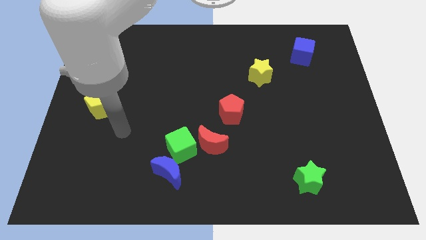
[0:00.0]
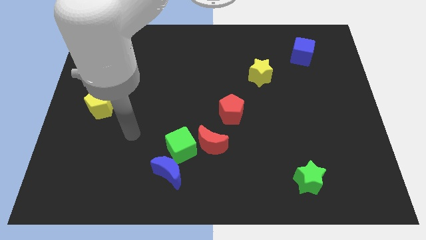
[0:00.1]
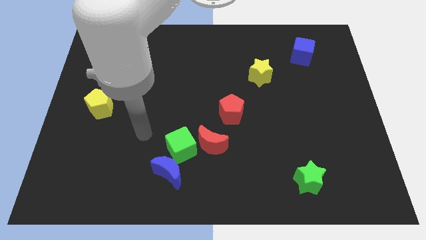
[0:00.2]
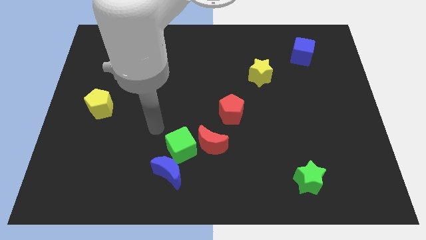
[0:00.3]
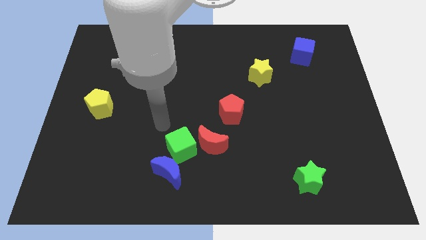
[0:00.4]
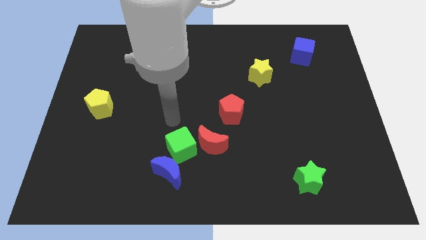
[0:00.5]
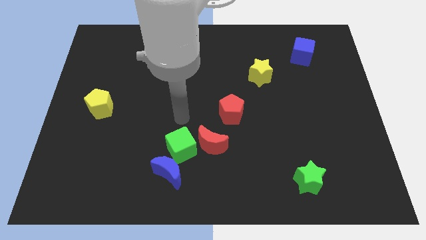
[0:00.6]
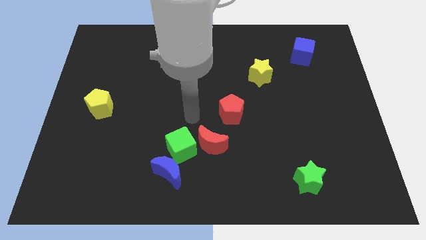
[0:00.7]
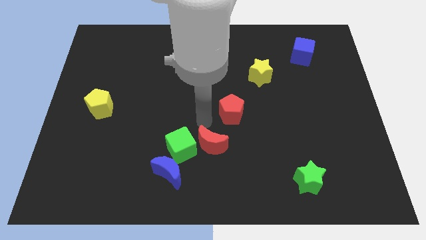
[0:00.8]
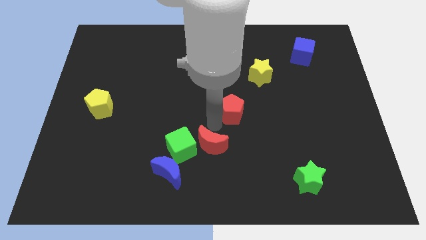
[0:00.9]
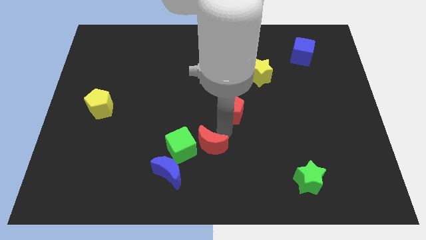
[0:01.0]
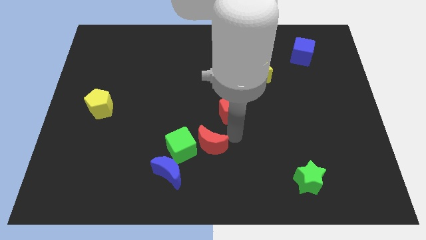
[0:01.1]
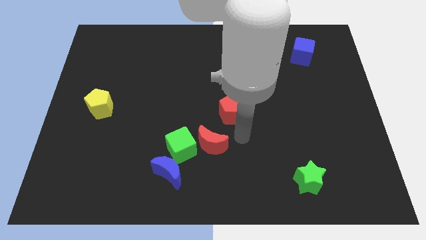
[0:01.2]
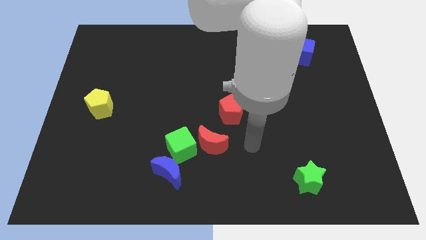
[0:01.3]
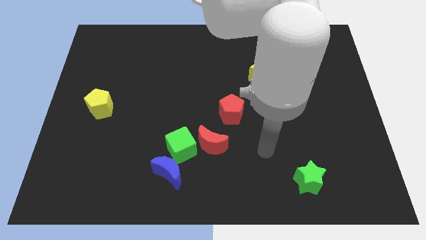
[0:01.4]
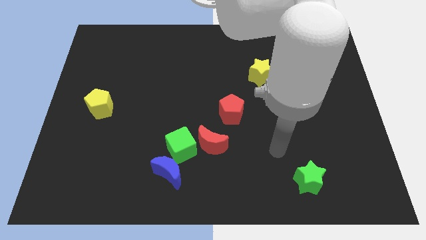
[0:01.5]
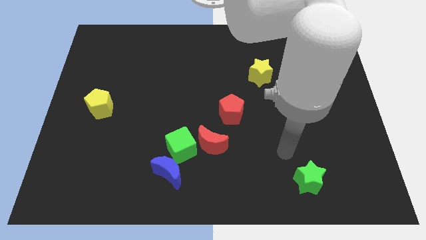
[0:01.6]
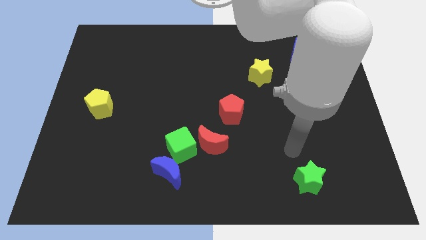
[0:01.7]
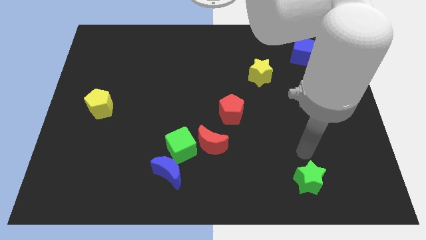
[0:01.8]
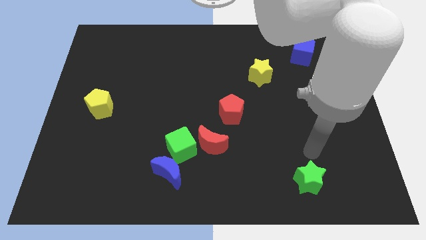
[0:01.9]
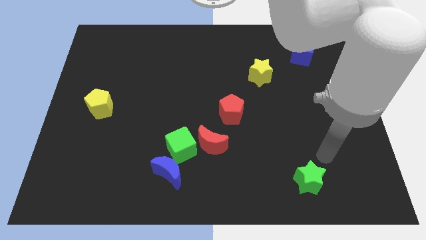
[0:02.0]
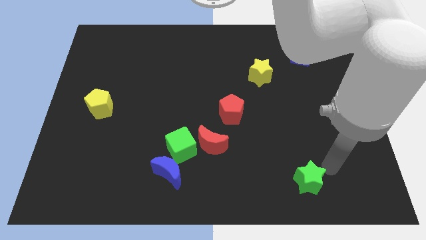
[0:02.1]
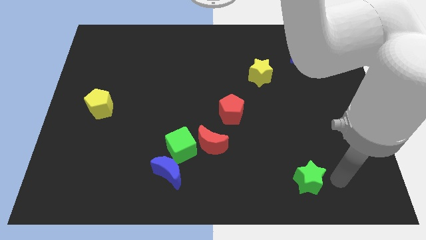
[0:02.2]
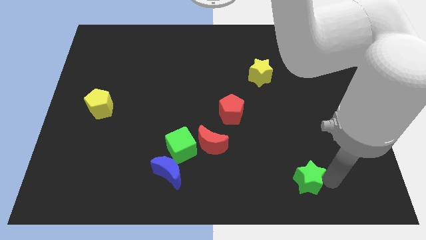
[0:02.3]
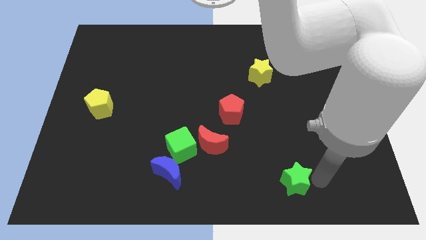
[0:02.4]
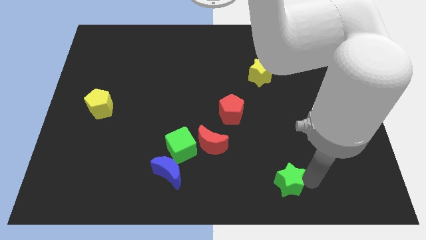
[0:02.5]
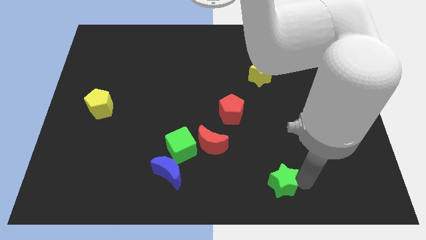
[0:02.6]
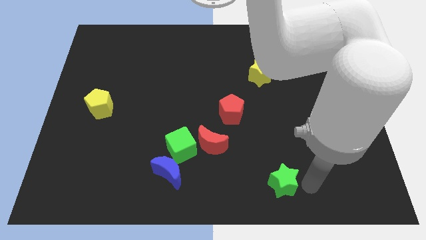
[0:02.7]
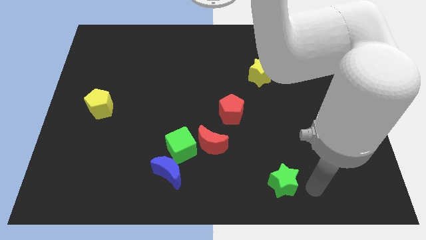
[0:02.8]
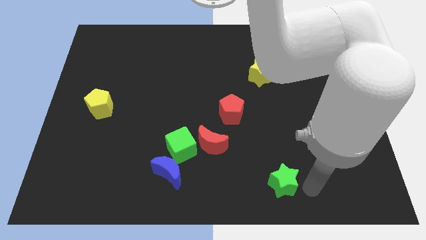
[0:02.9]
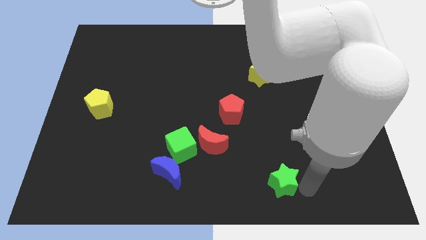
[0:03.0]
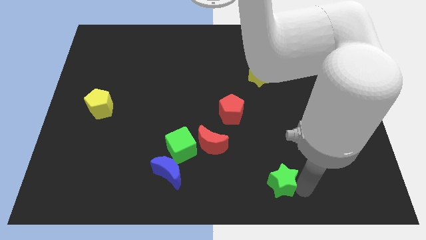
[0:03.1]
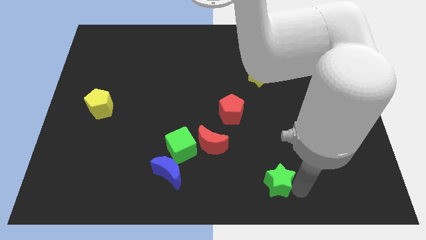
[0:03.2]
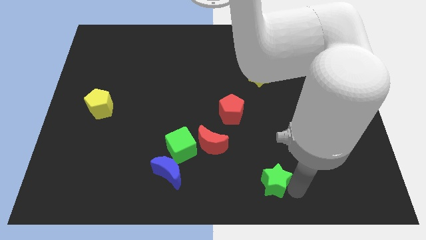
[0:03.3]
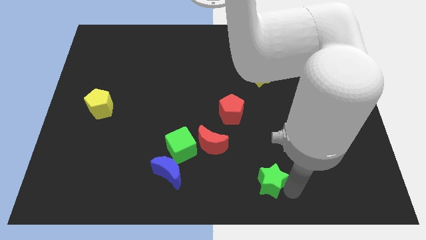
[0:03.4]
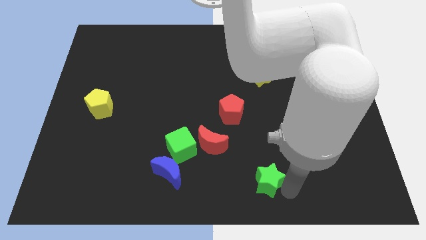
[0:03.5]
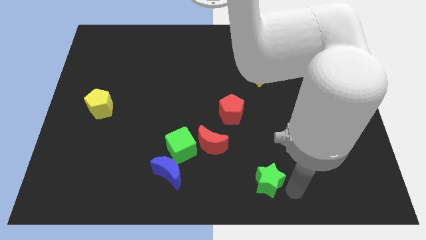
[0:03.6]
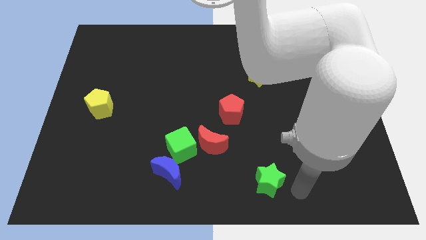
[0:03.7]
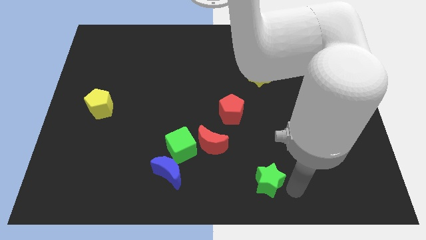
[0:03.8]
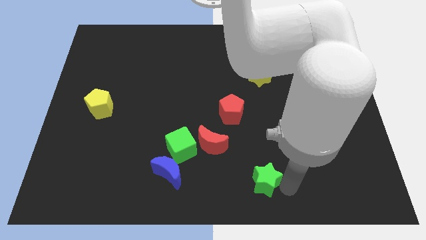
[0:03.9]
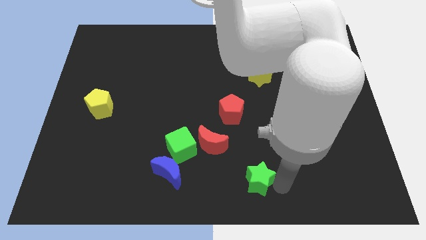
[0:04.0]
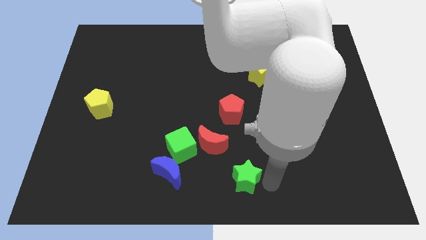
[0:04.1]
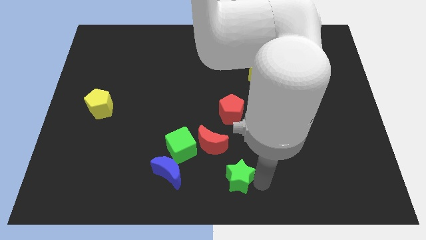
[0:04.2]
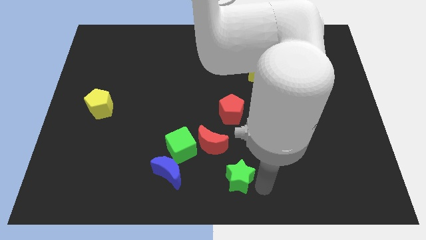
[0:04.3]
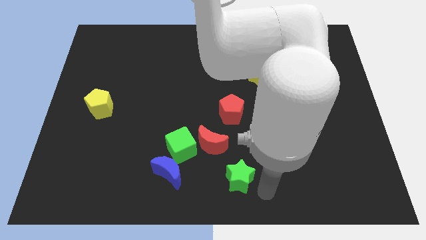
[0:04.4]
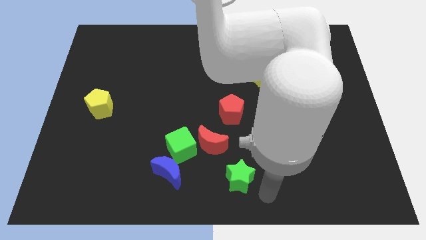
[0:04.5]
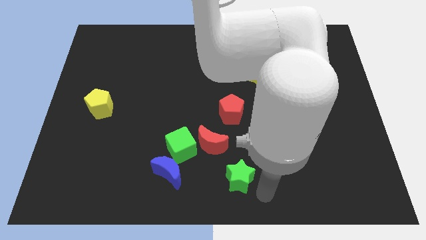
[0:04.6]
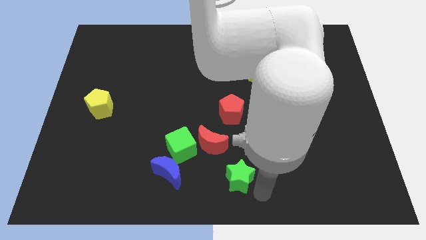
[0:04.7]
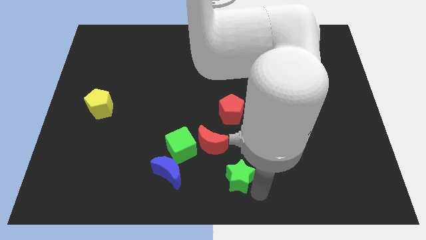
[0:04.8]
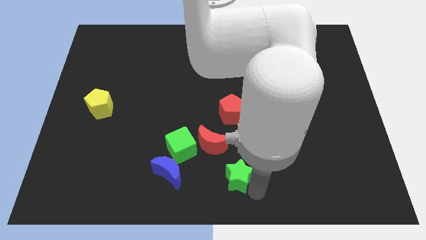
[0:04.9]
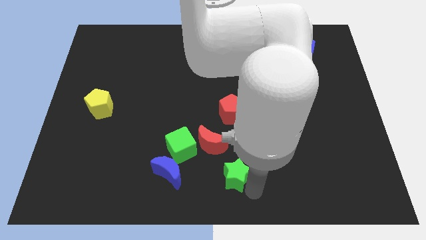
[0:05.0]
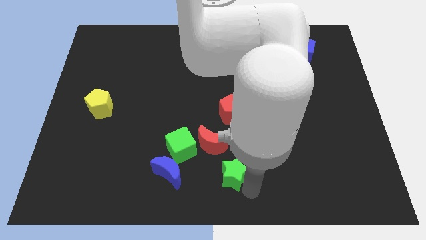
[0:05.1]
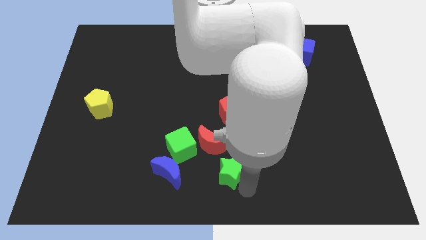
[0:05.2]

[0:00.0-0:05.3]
push the green star to the bottom right side of the green cube

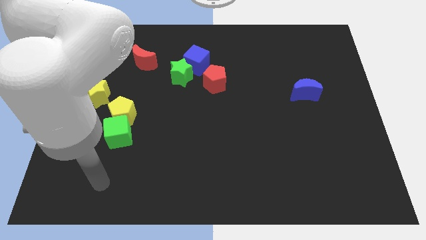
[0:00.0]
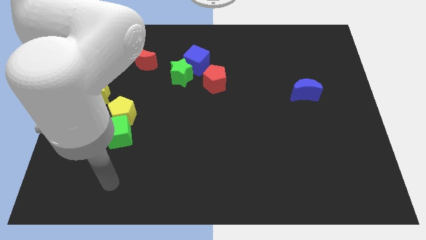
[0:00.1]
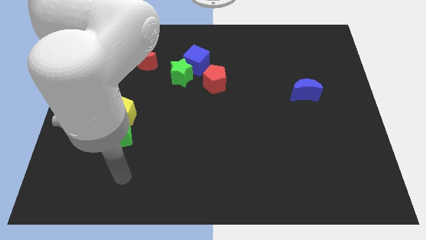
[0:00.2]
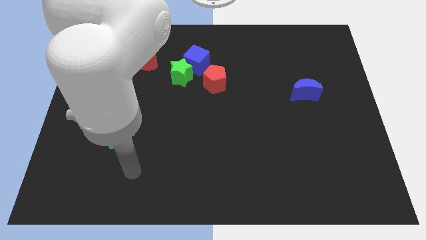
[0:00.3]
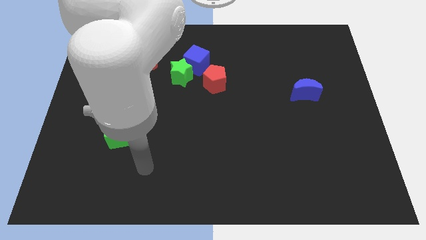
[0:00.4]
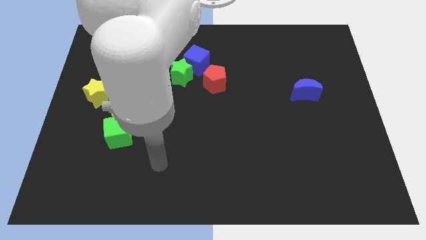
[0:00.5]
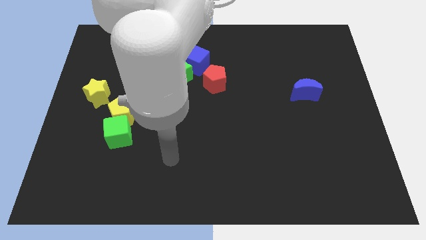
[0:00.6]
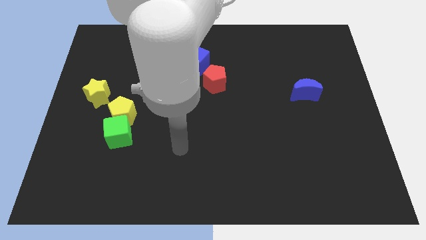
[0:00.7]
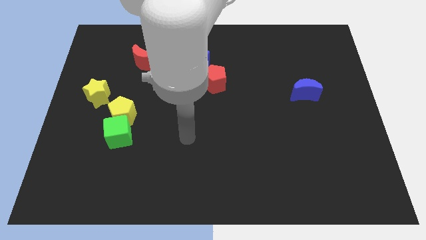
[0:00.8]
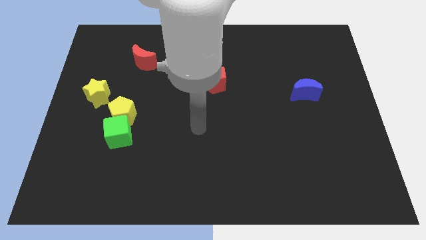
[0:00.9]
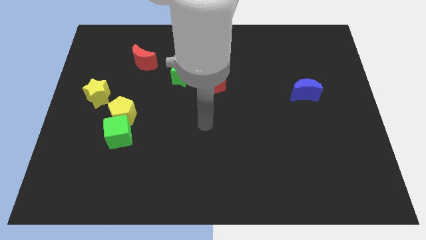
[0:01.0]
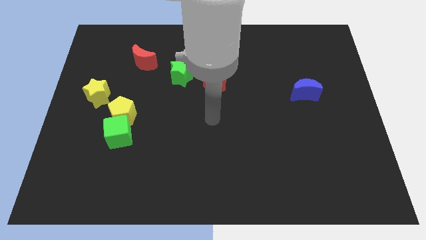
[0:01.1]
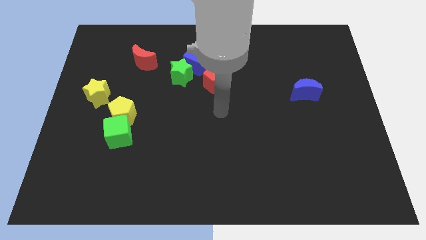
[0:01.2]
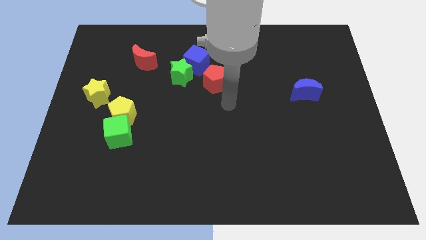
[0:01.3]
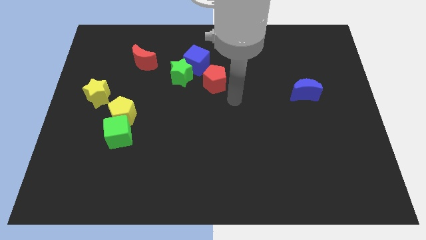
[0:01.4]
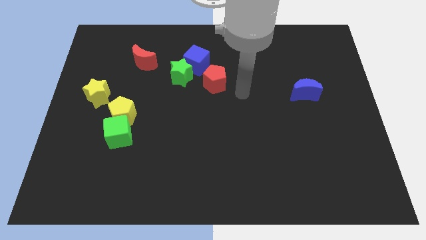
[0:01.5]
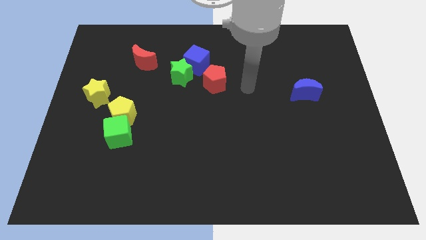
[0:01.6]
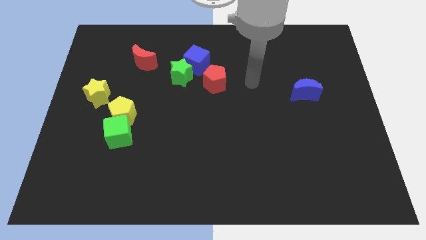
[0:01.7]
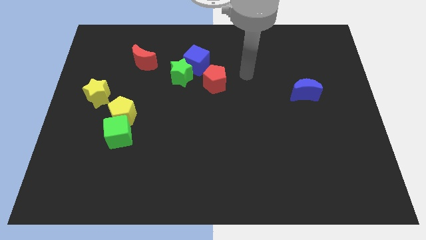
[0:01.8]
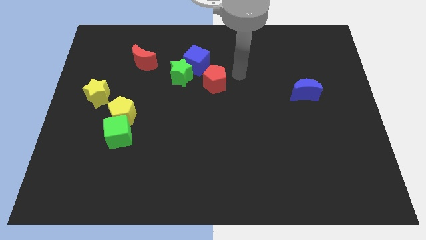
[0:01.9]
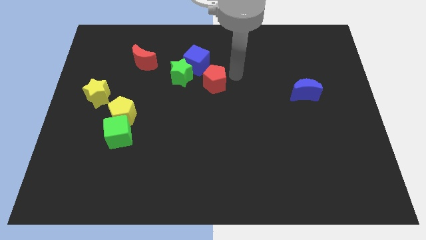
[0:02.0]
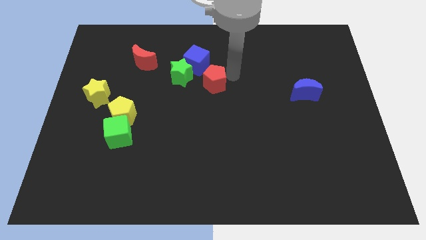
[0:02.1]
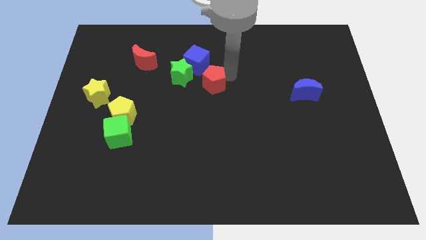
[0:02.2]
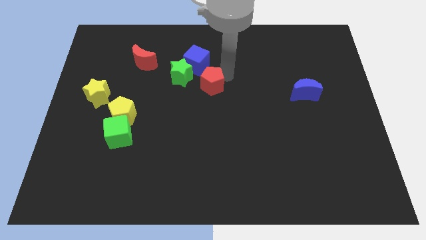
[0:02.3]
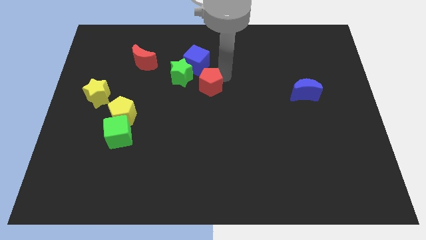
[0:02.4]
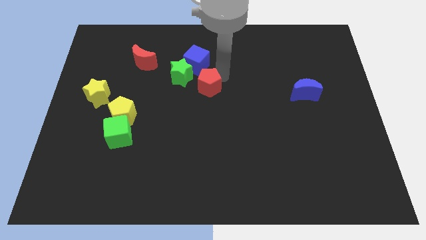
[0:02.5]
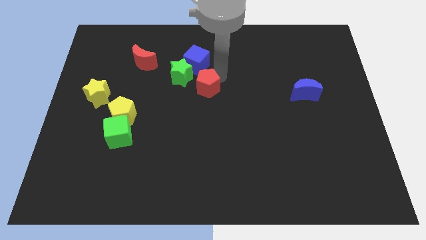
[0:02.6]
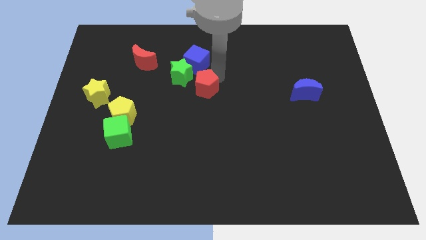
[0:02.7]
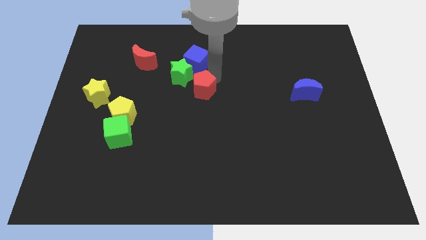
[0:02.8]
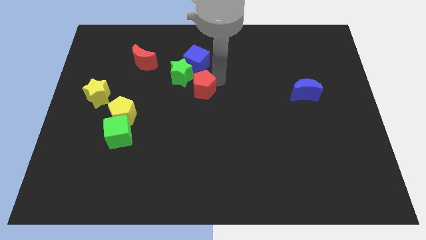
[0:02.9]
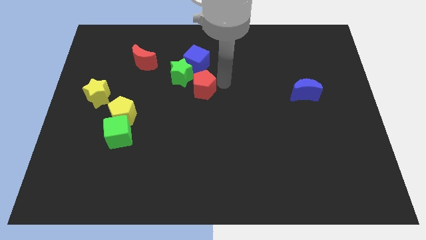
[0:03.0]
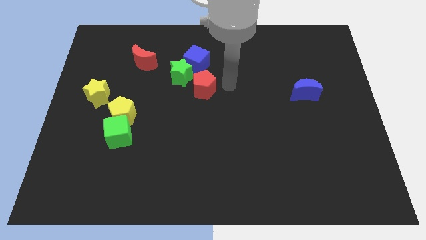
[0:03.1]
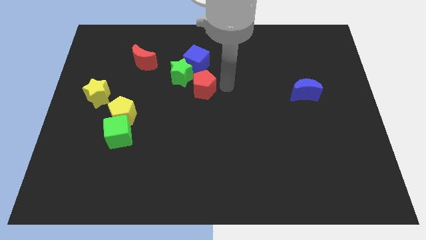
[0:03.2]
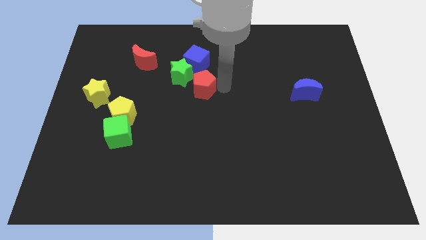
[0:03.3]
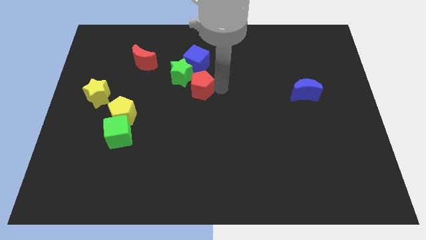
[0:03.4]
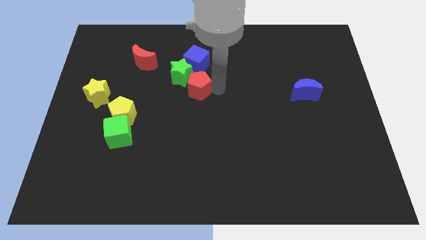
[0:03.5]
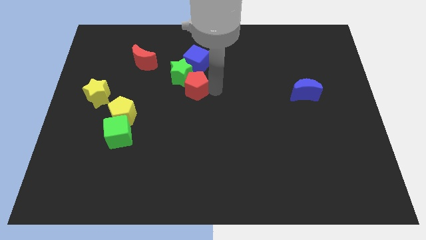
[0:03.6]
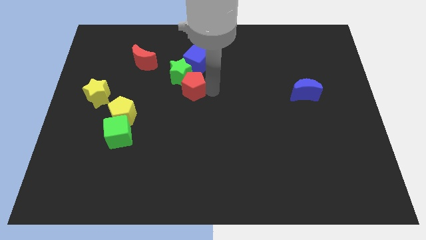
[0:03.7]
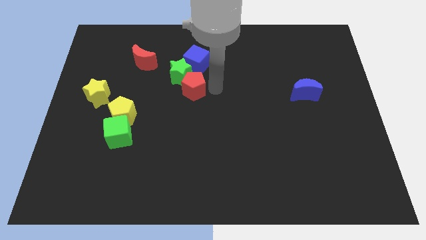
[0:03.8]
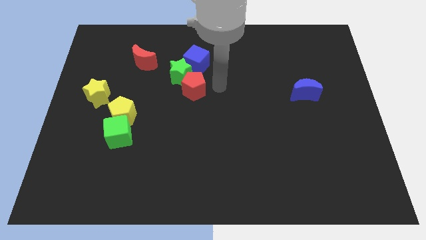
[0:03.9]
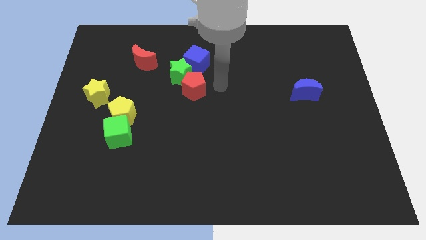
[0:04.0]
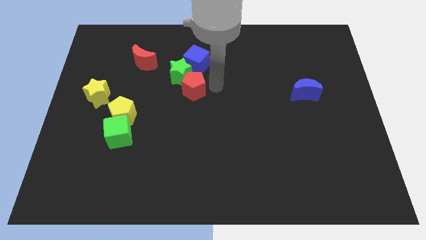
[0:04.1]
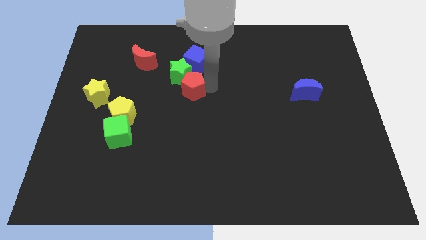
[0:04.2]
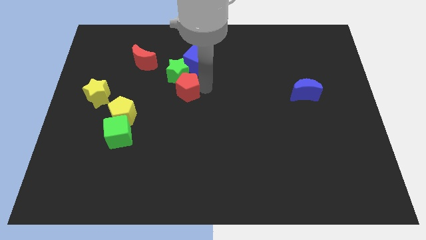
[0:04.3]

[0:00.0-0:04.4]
push the red pentagon to the bottom left of the blue cube
